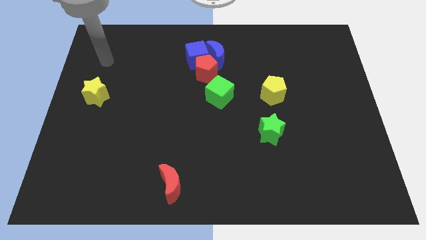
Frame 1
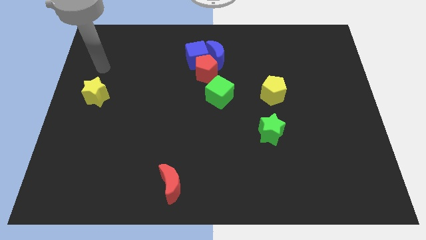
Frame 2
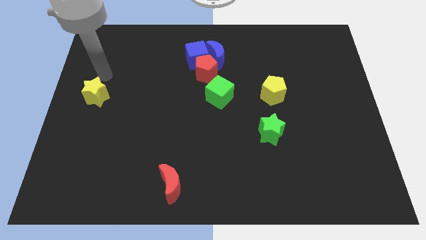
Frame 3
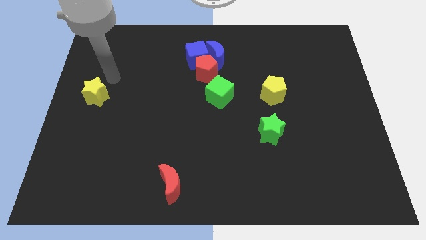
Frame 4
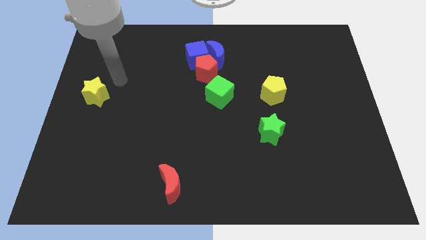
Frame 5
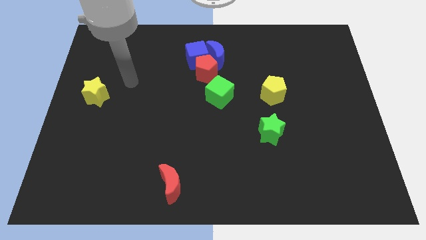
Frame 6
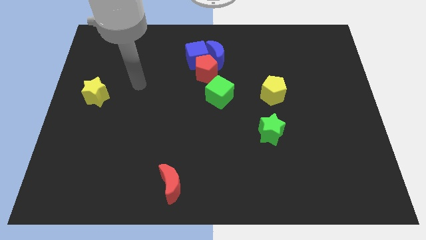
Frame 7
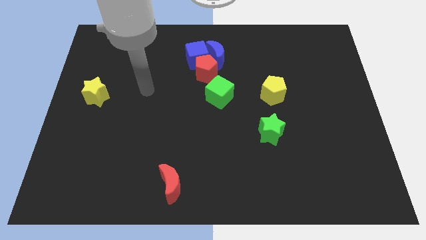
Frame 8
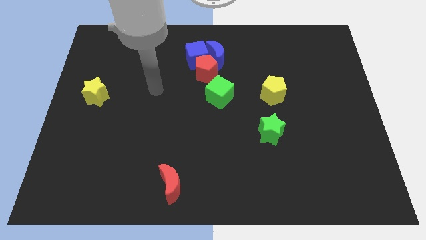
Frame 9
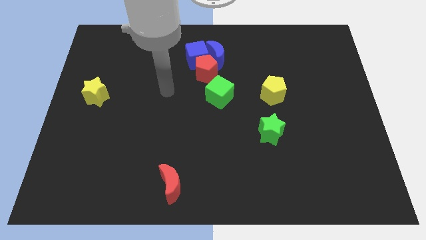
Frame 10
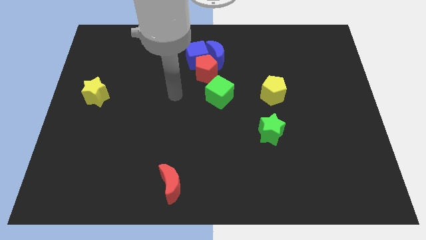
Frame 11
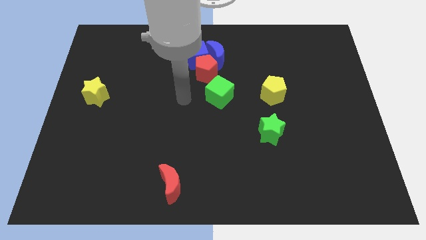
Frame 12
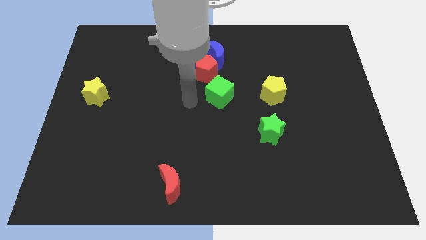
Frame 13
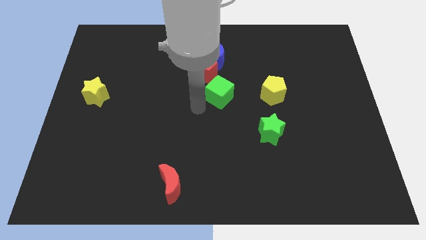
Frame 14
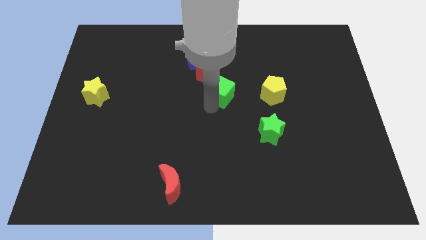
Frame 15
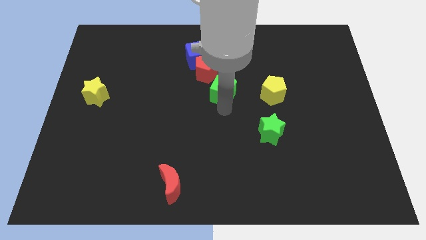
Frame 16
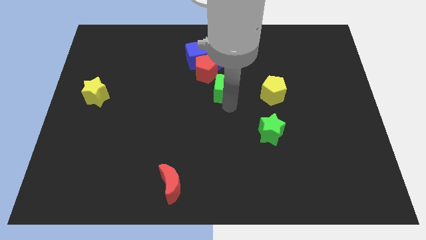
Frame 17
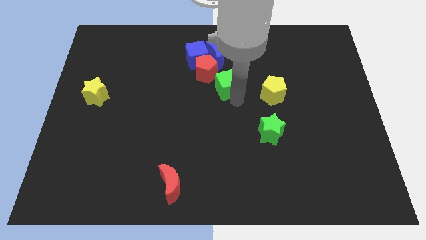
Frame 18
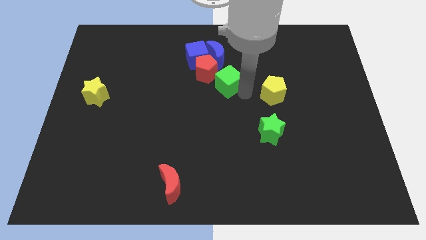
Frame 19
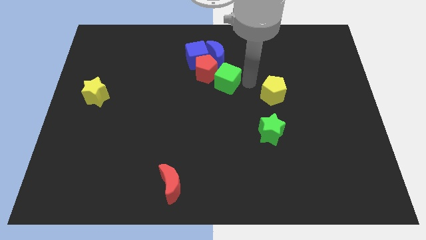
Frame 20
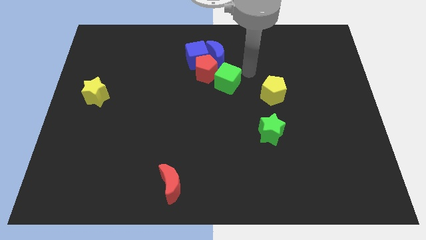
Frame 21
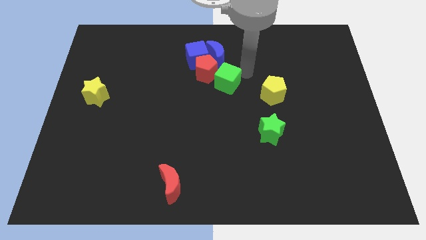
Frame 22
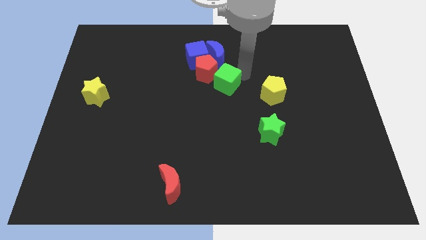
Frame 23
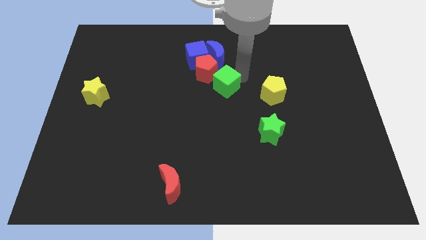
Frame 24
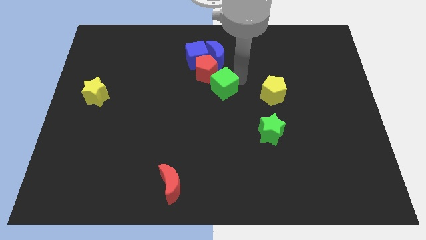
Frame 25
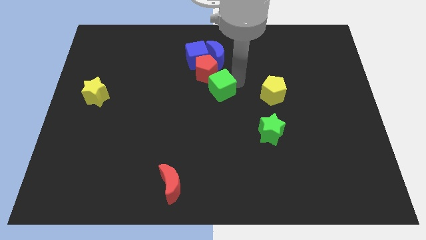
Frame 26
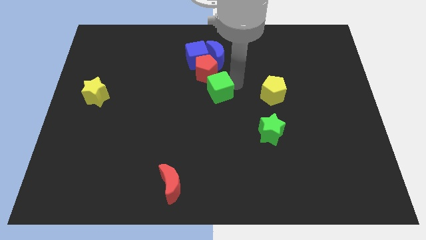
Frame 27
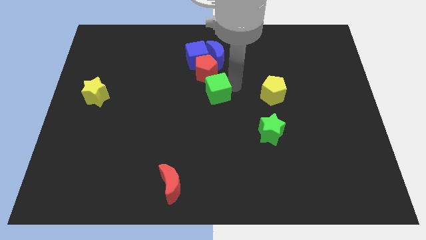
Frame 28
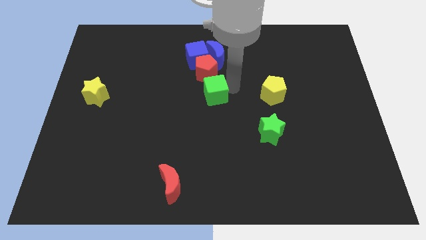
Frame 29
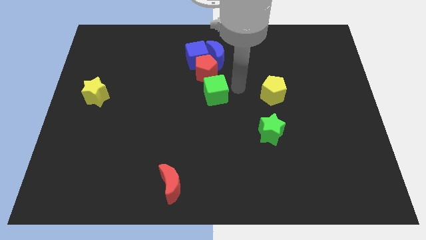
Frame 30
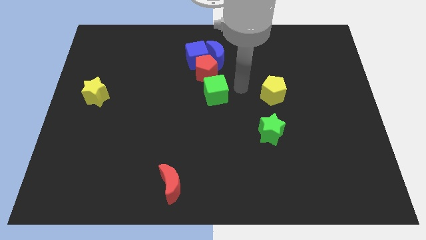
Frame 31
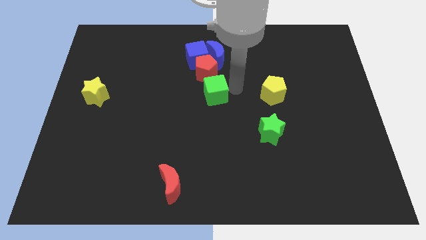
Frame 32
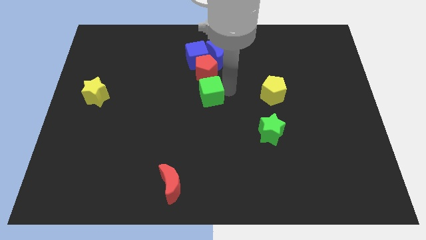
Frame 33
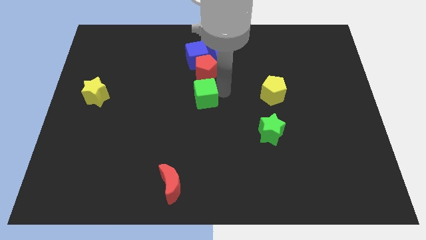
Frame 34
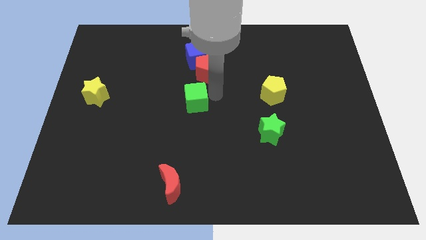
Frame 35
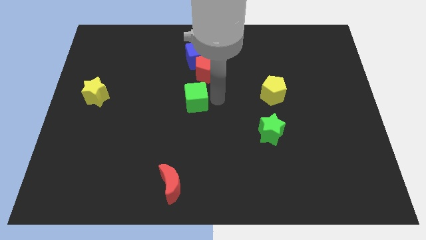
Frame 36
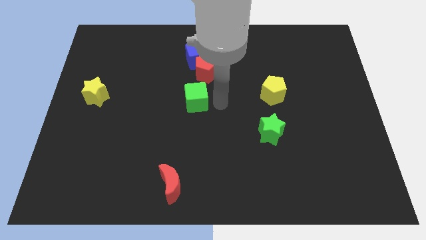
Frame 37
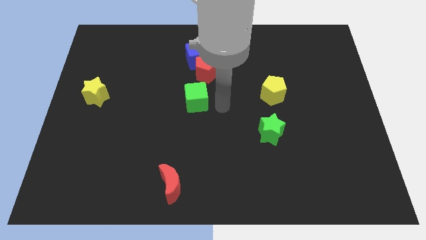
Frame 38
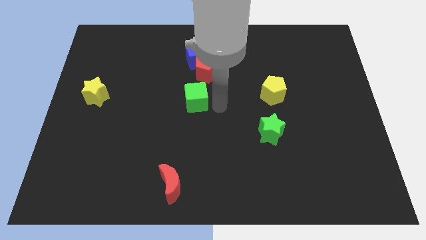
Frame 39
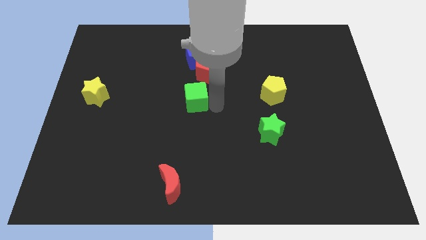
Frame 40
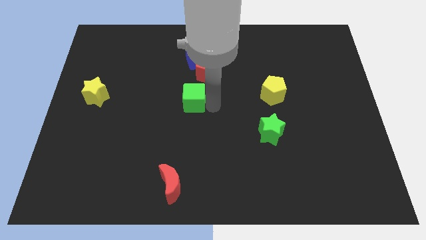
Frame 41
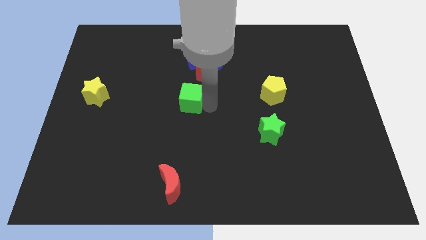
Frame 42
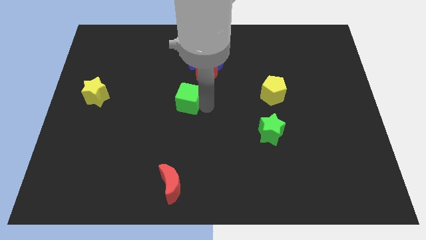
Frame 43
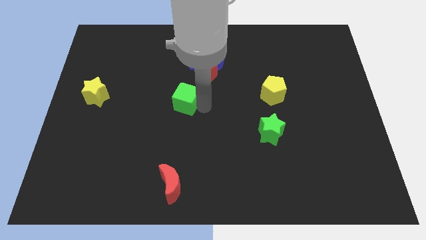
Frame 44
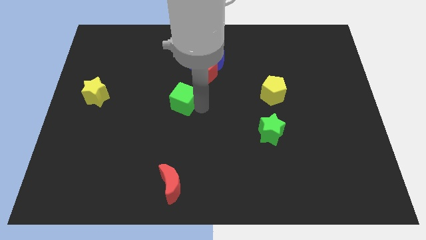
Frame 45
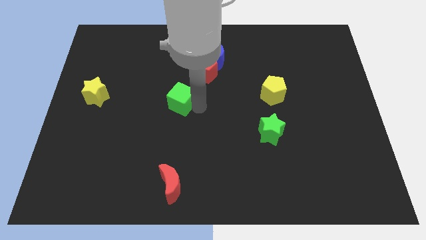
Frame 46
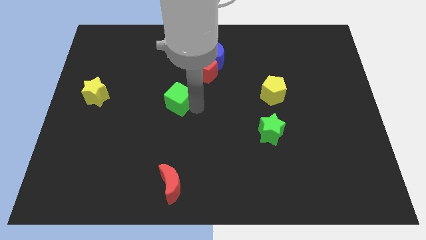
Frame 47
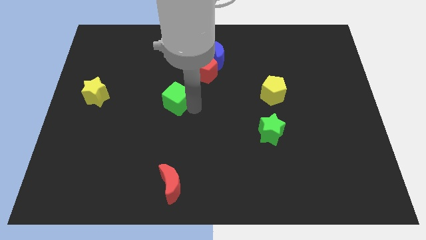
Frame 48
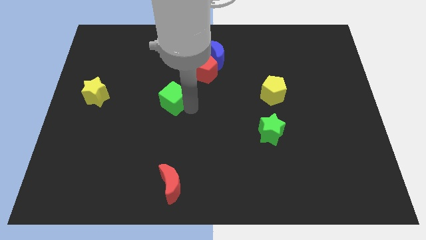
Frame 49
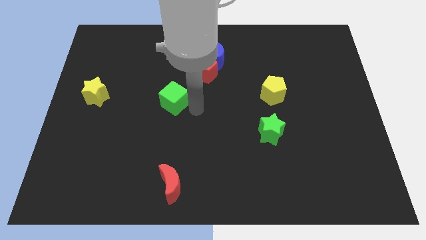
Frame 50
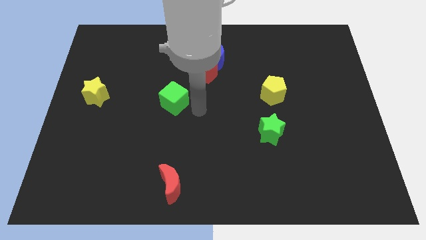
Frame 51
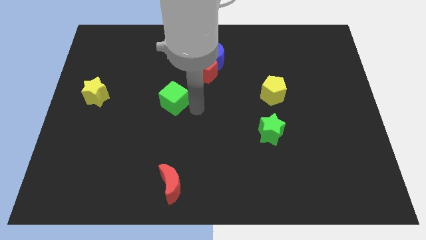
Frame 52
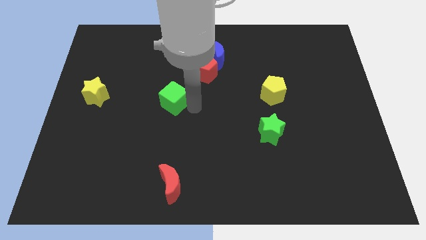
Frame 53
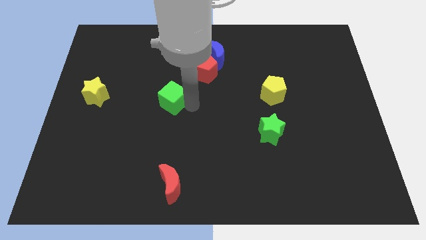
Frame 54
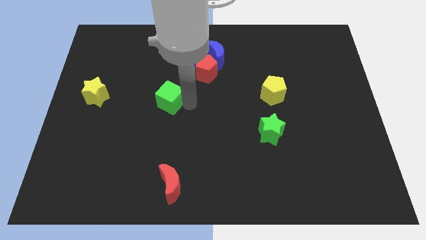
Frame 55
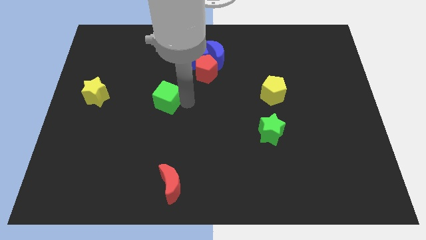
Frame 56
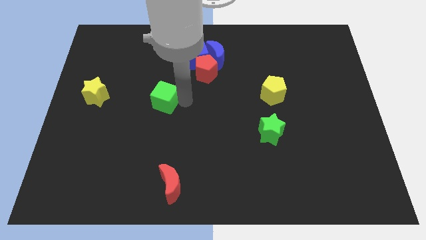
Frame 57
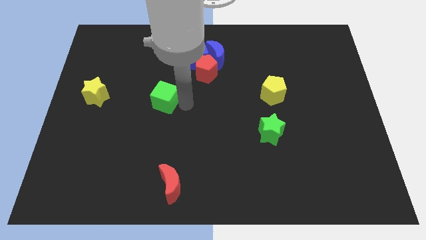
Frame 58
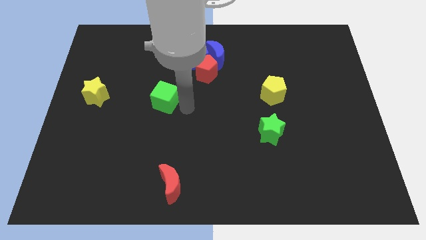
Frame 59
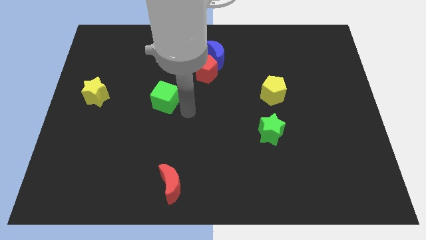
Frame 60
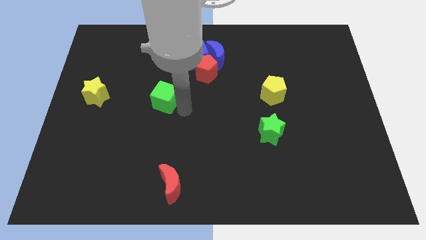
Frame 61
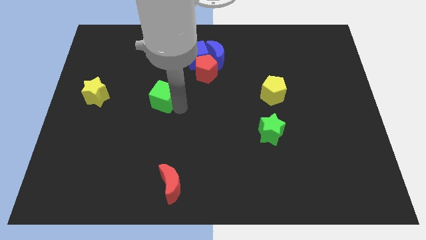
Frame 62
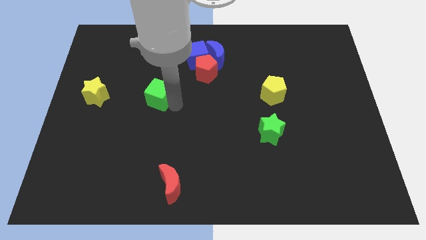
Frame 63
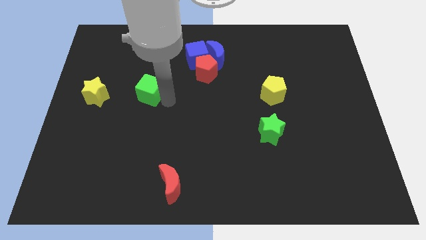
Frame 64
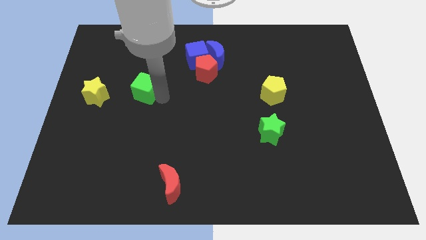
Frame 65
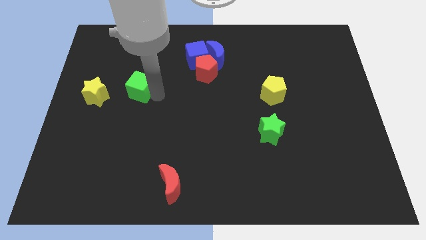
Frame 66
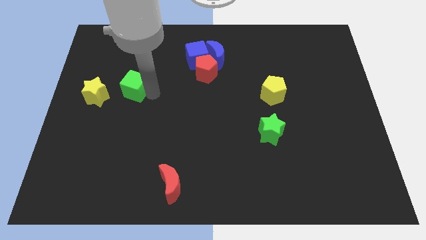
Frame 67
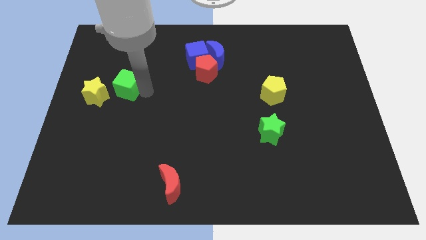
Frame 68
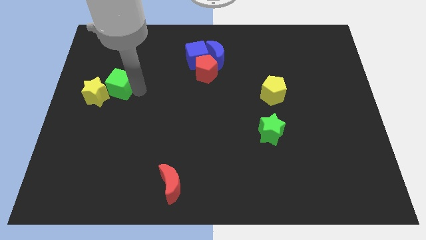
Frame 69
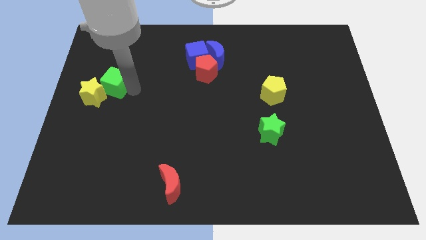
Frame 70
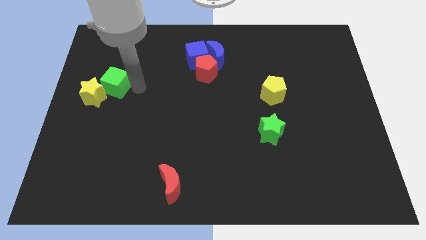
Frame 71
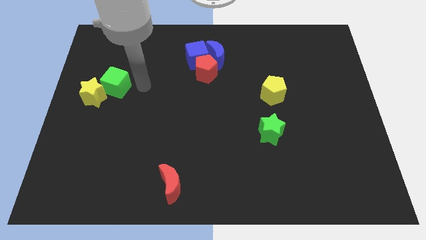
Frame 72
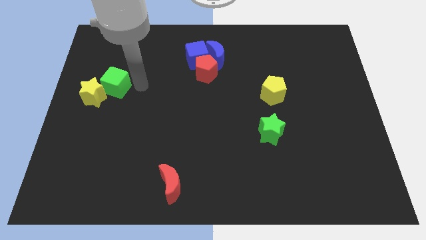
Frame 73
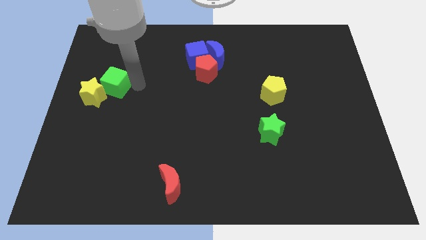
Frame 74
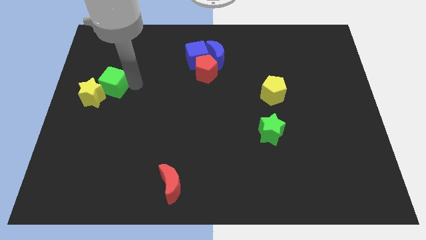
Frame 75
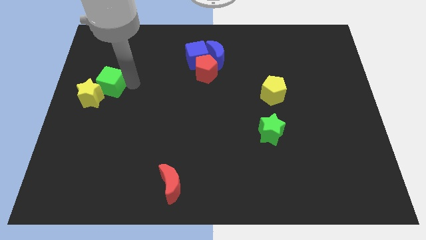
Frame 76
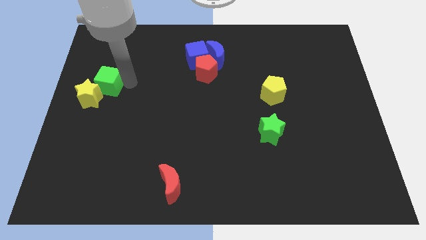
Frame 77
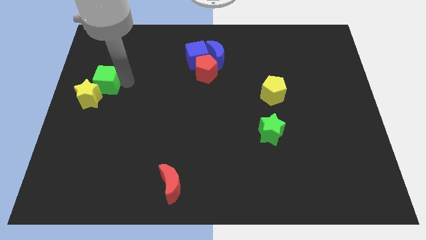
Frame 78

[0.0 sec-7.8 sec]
push the green cube to the left side of the board
